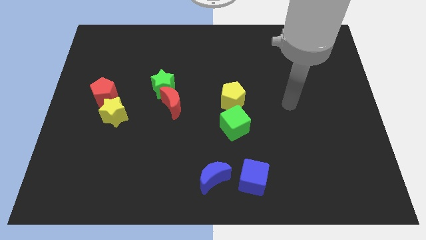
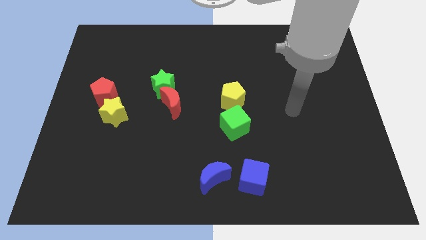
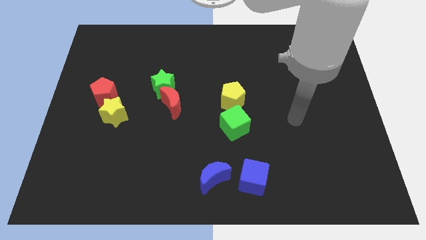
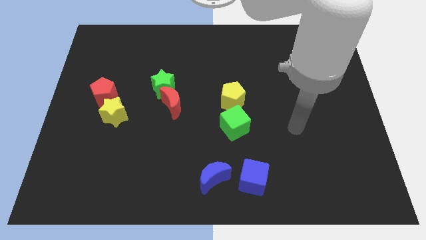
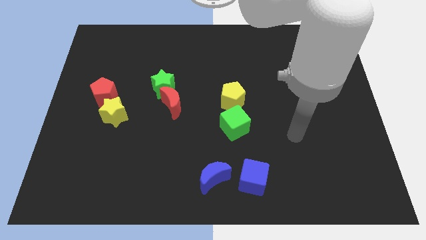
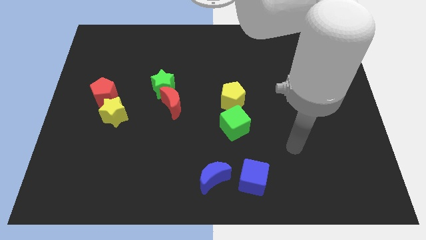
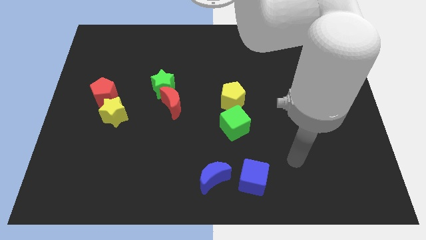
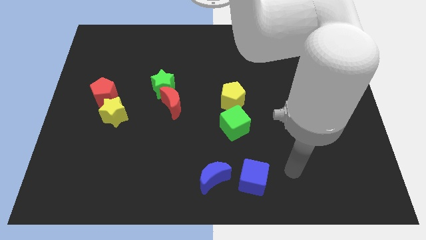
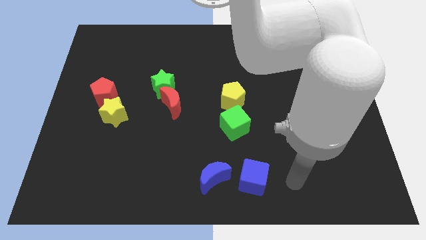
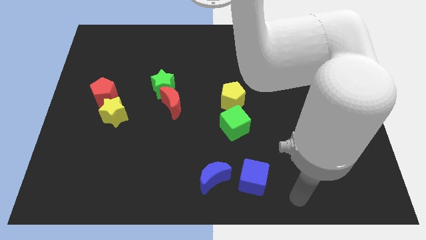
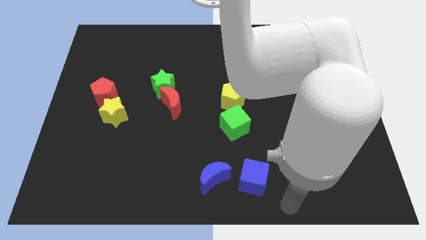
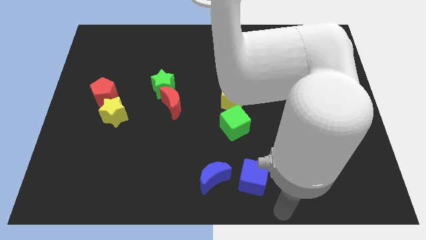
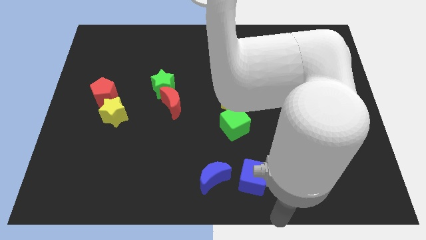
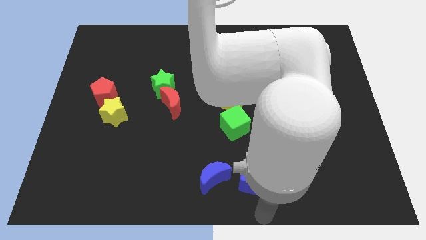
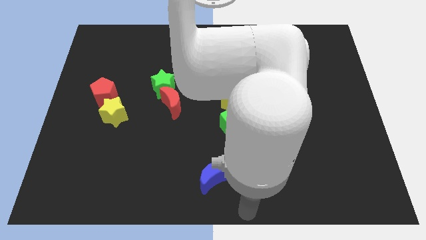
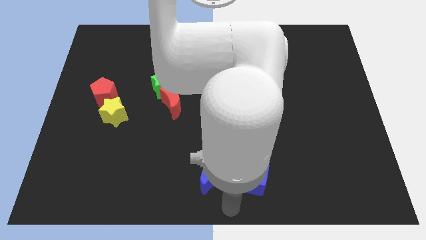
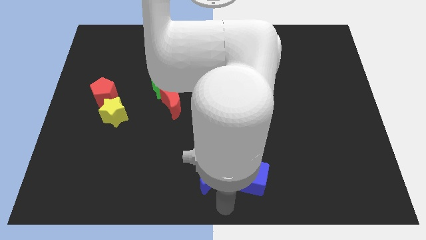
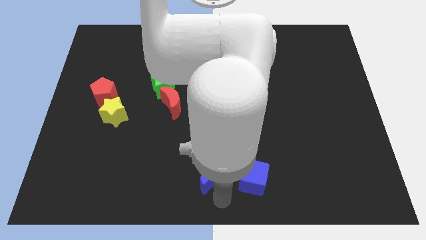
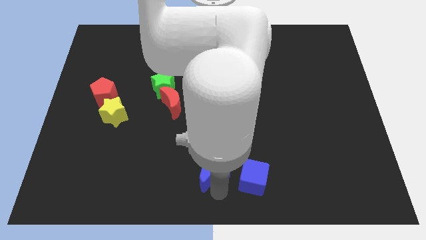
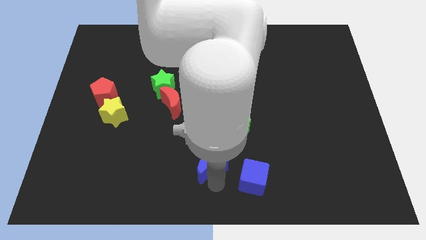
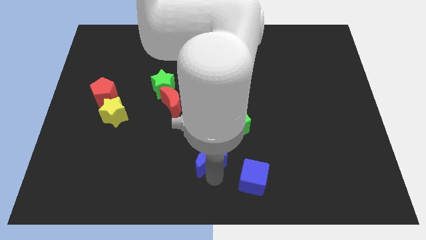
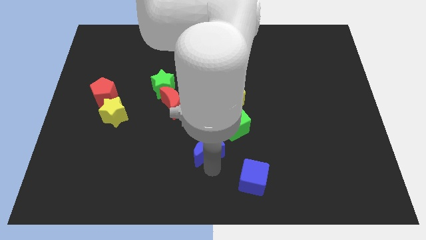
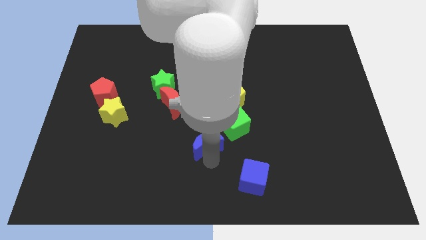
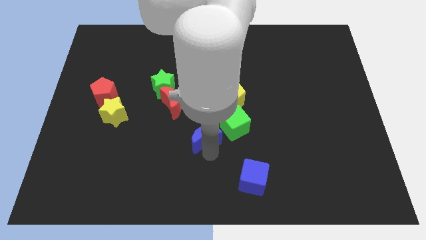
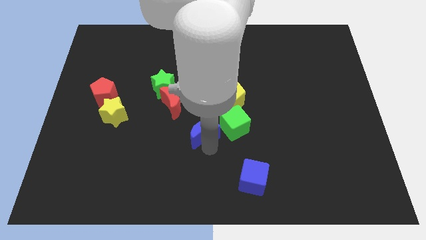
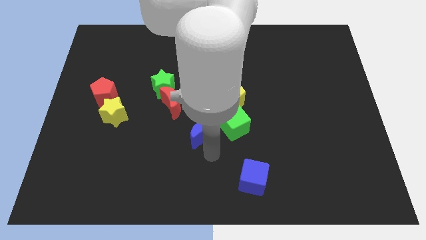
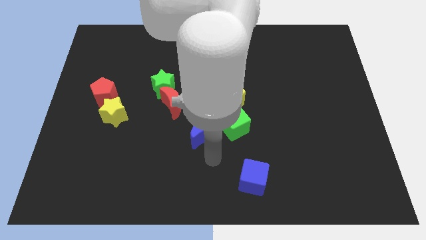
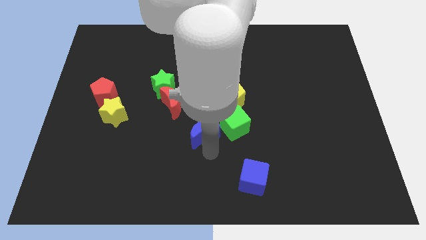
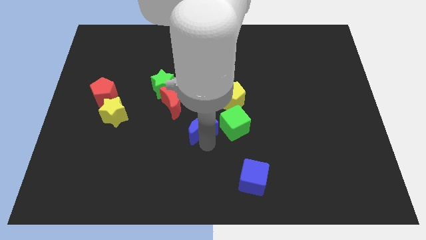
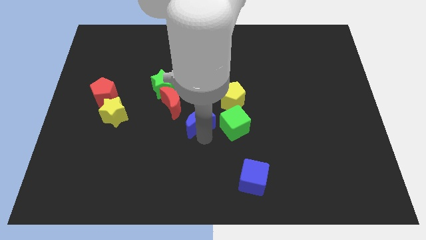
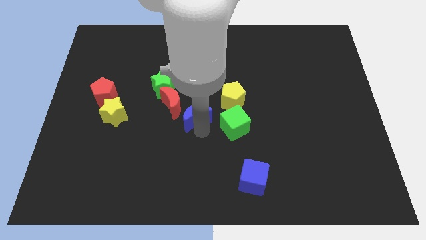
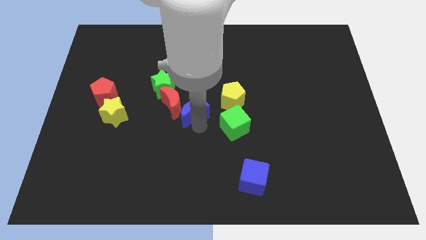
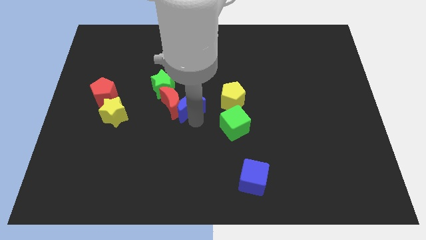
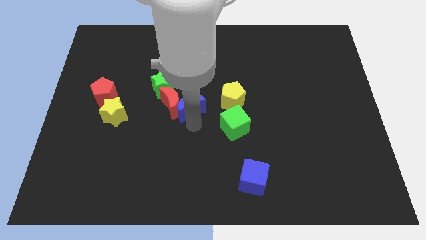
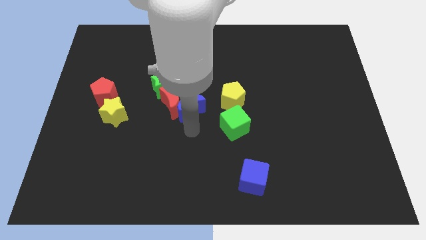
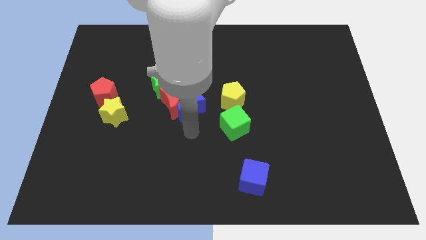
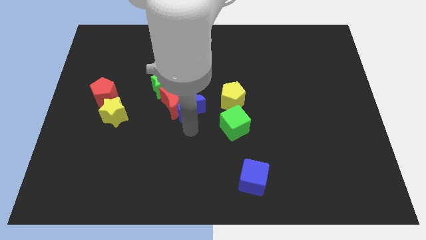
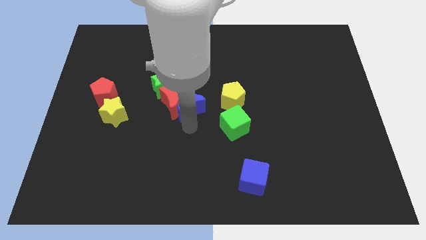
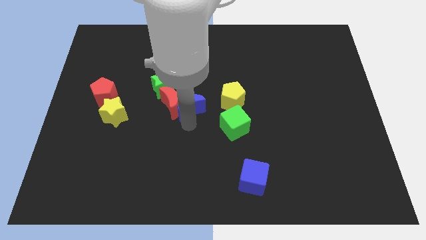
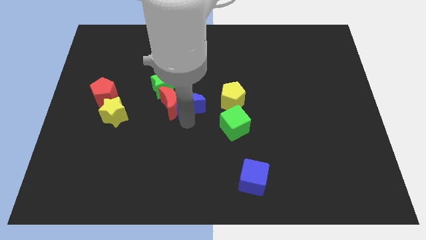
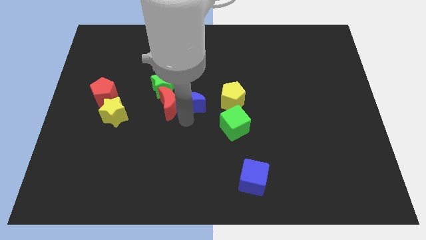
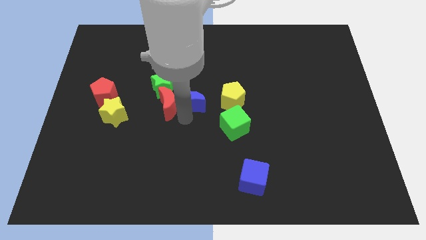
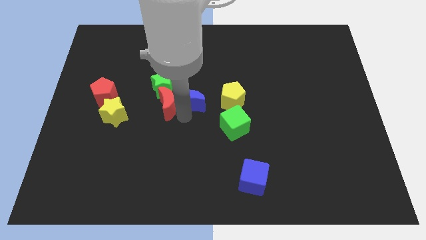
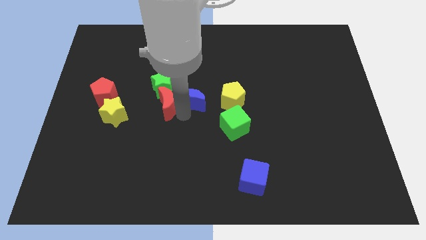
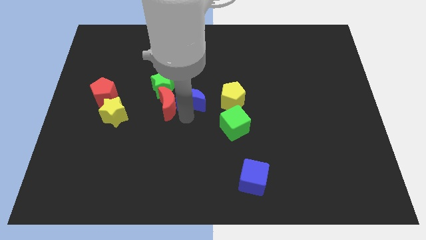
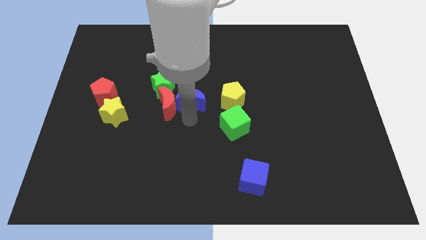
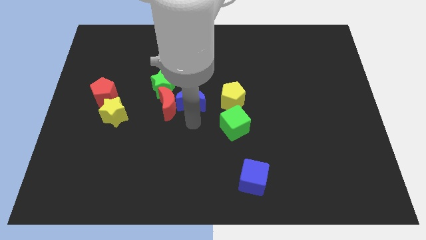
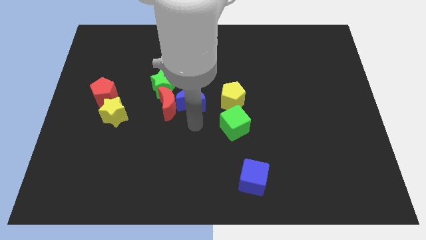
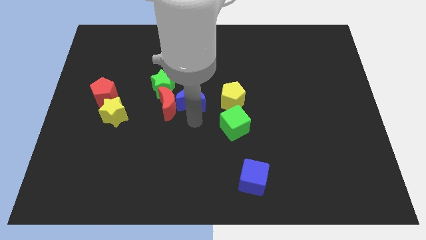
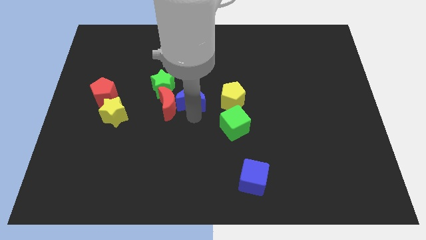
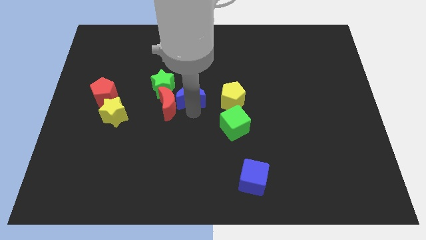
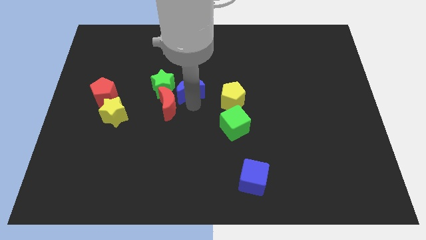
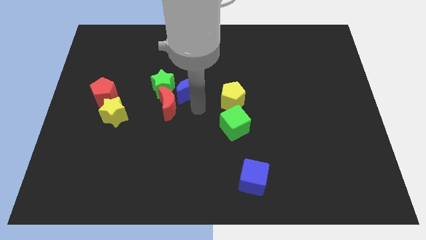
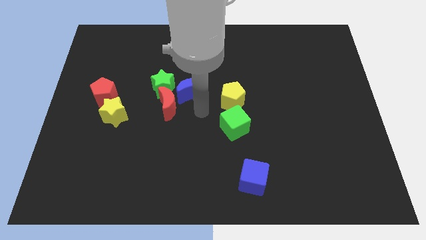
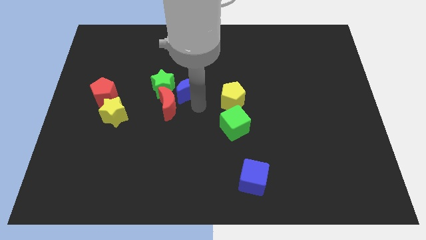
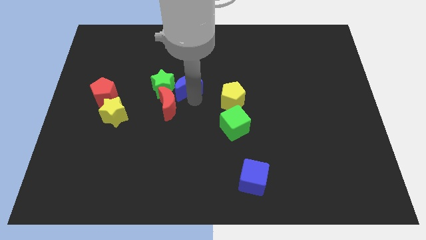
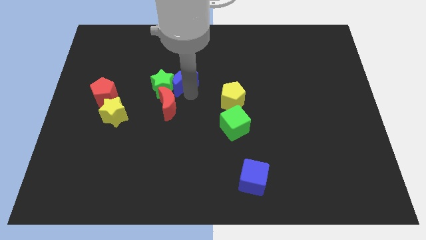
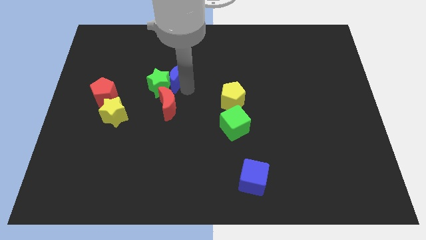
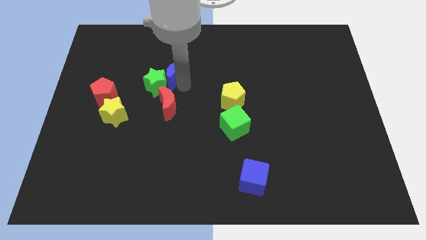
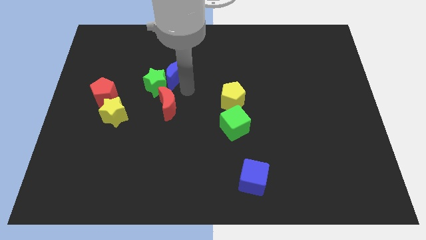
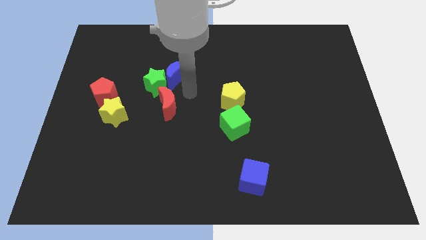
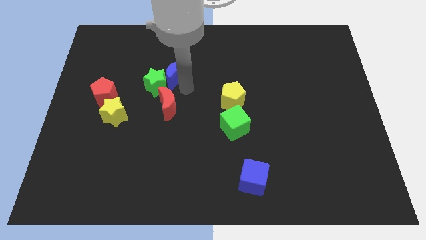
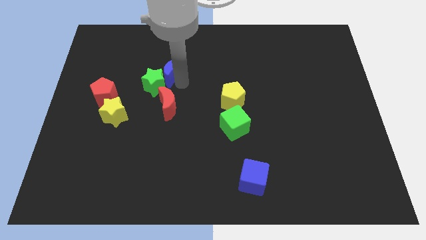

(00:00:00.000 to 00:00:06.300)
push the blue moon to the top of the green star
